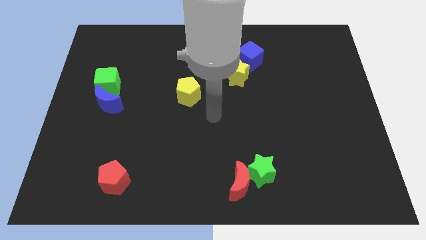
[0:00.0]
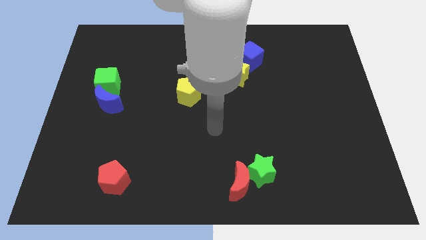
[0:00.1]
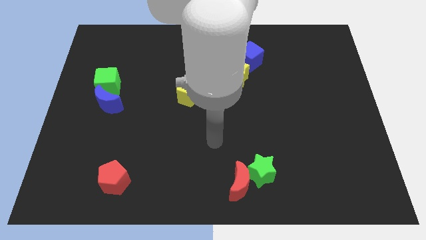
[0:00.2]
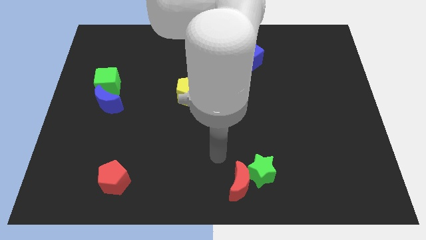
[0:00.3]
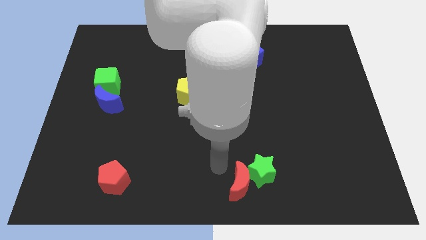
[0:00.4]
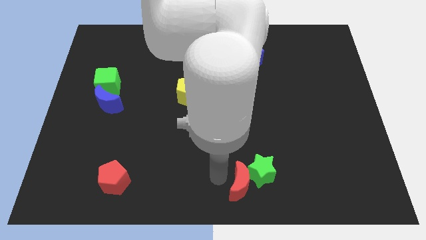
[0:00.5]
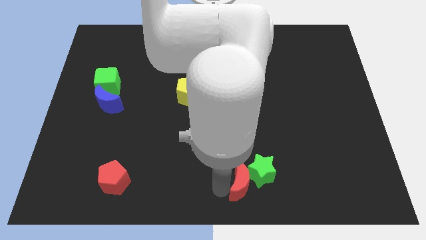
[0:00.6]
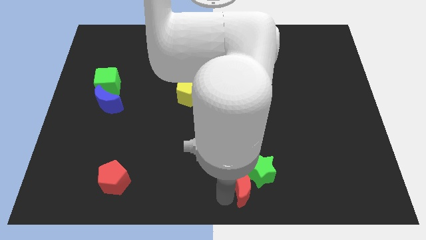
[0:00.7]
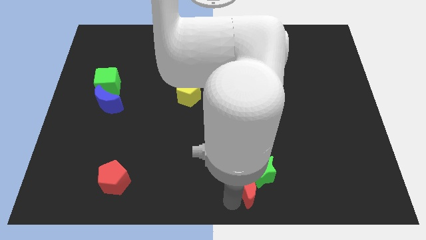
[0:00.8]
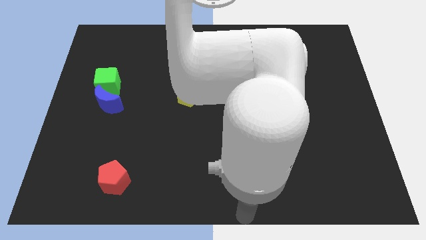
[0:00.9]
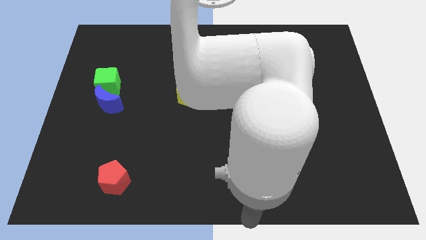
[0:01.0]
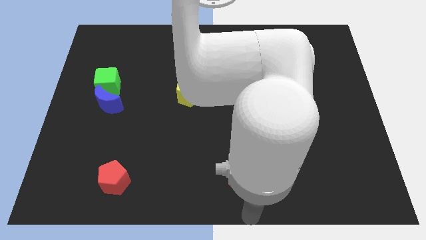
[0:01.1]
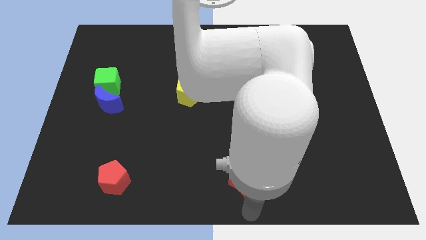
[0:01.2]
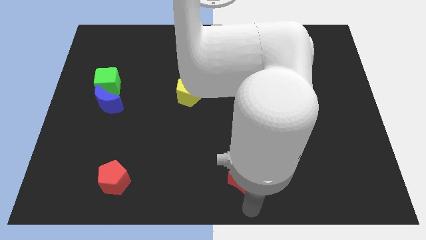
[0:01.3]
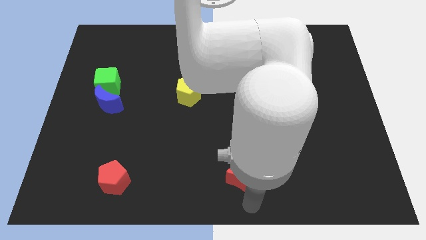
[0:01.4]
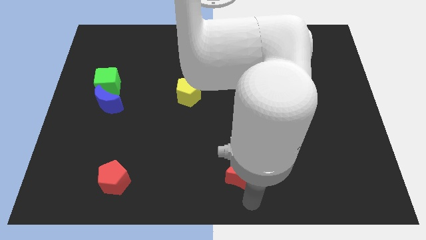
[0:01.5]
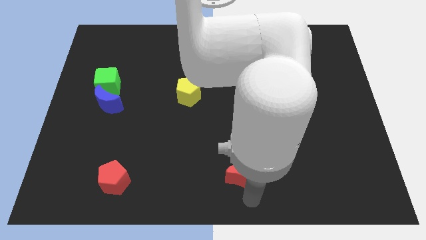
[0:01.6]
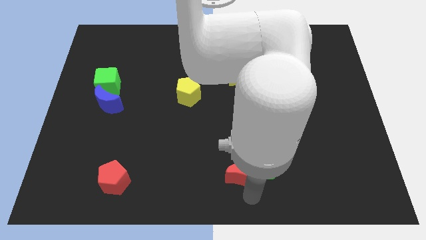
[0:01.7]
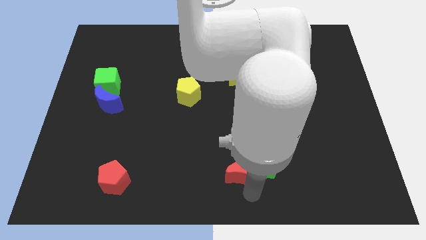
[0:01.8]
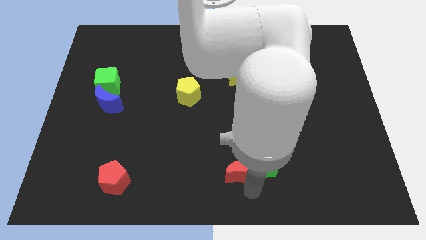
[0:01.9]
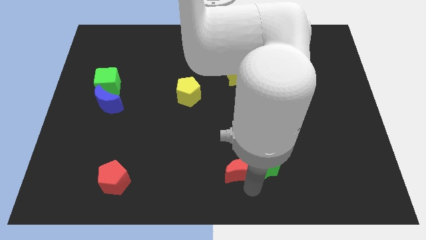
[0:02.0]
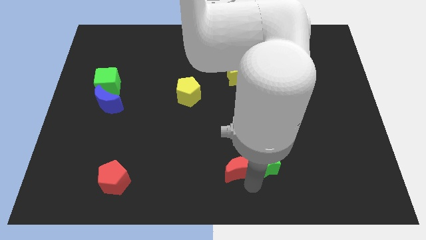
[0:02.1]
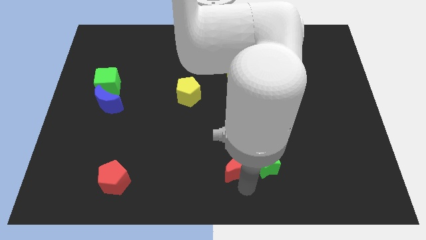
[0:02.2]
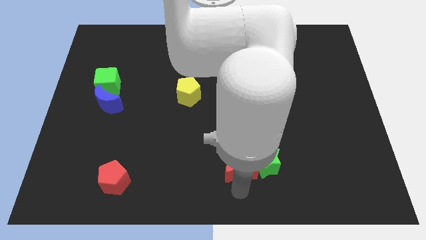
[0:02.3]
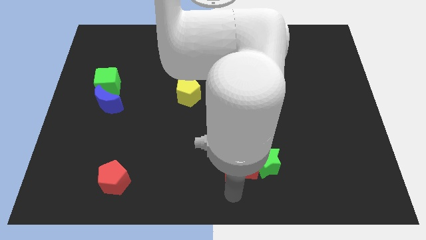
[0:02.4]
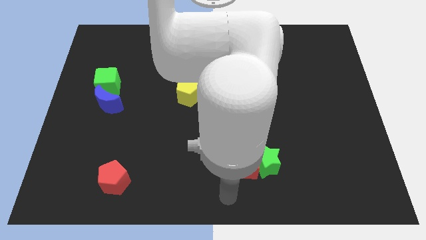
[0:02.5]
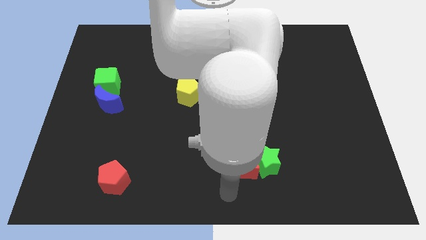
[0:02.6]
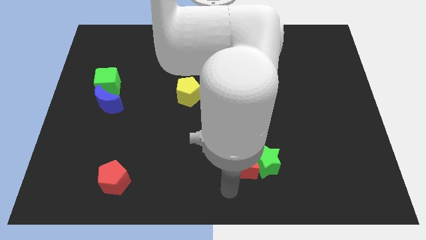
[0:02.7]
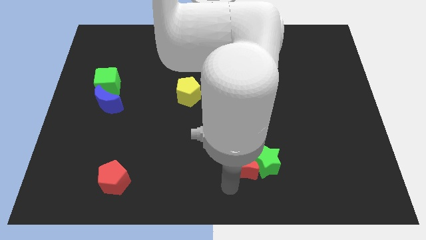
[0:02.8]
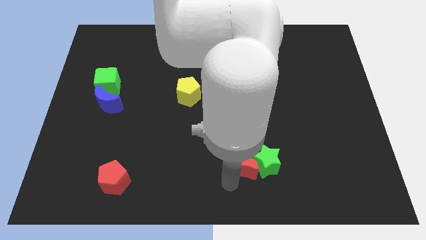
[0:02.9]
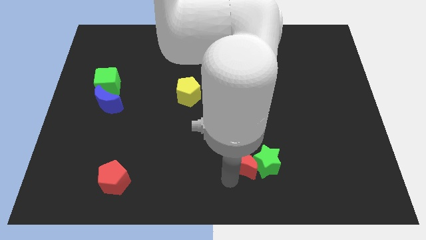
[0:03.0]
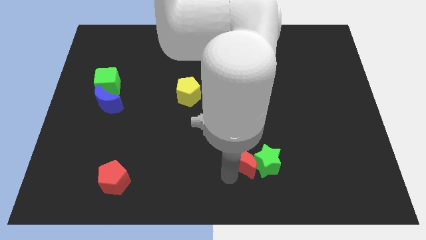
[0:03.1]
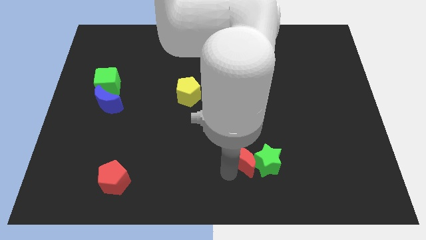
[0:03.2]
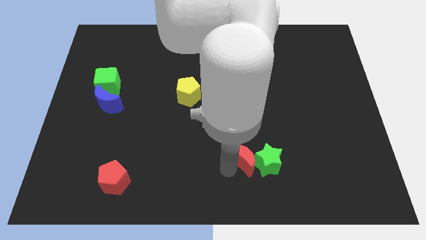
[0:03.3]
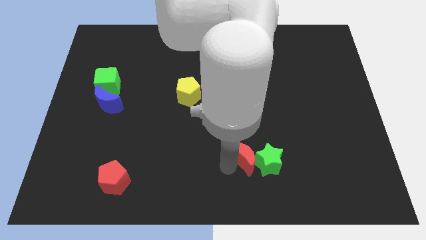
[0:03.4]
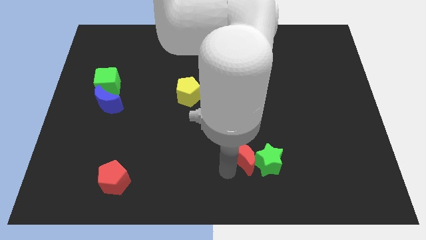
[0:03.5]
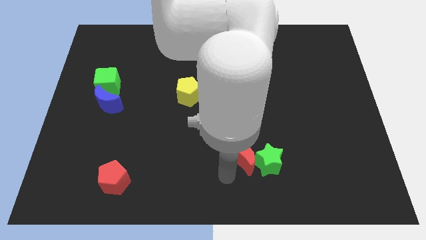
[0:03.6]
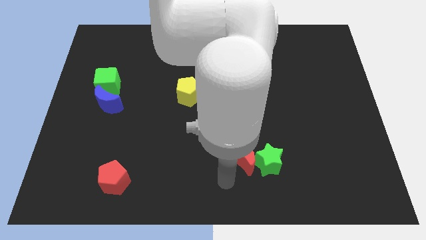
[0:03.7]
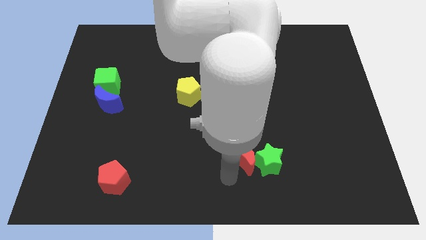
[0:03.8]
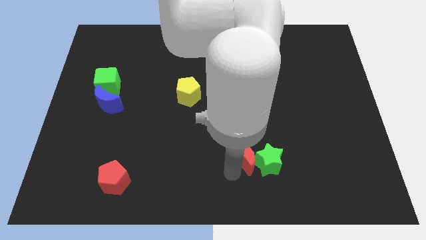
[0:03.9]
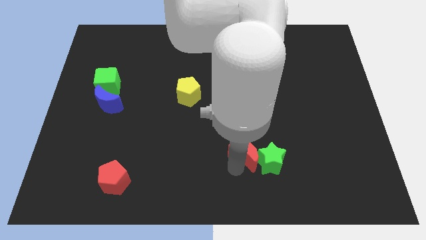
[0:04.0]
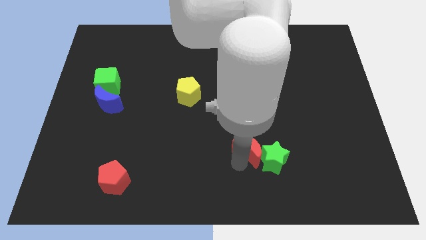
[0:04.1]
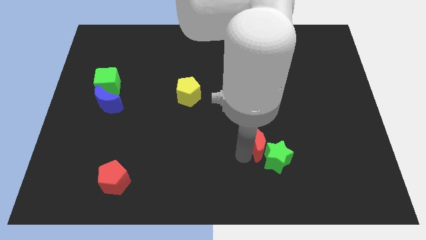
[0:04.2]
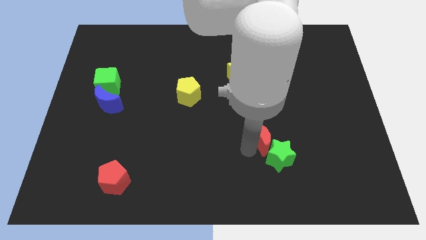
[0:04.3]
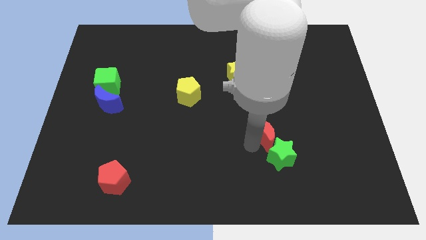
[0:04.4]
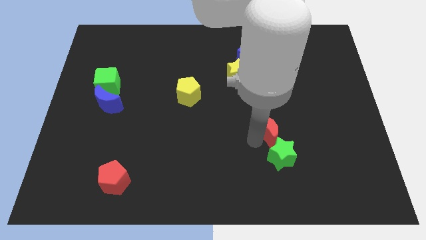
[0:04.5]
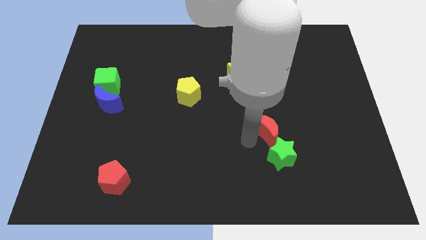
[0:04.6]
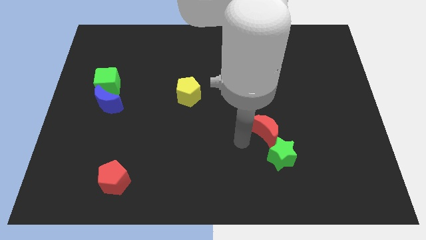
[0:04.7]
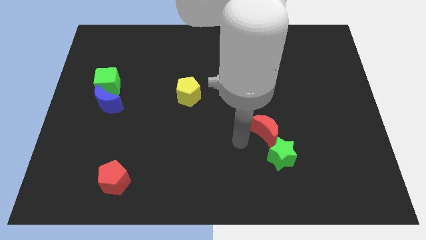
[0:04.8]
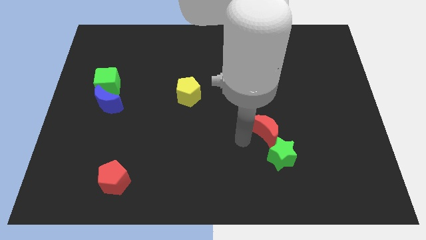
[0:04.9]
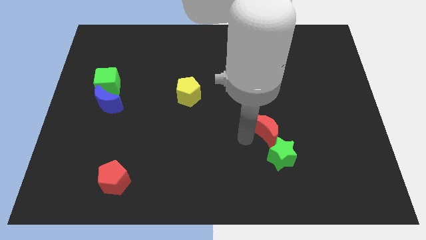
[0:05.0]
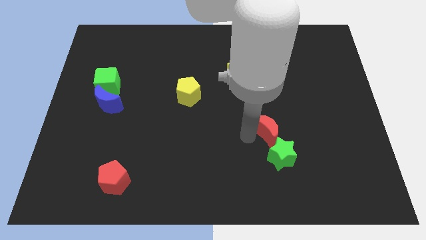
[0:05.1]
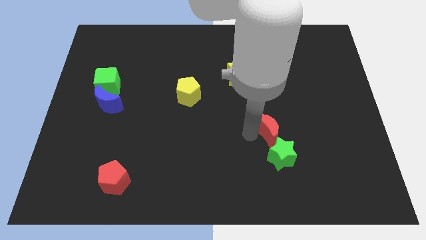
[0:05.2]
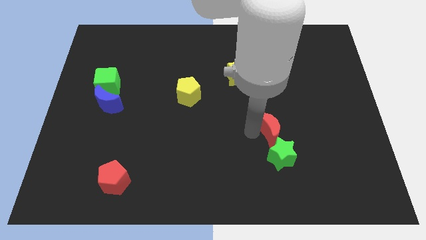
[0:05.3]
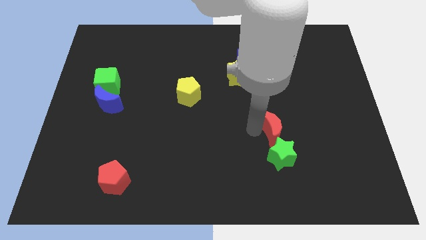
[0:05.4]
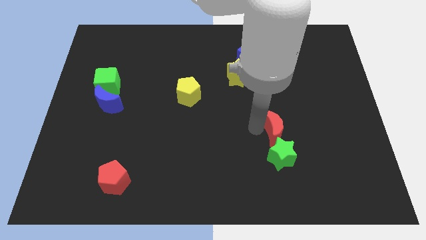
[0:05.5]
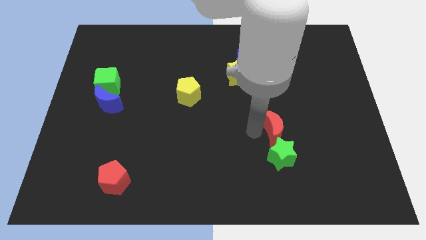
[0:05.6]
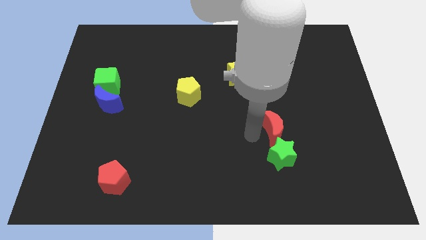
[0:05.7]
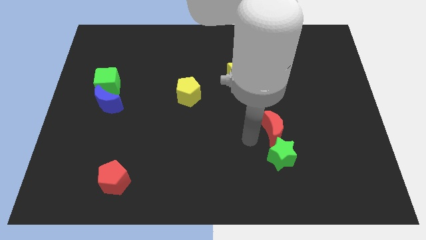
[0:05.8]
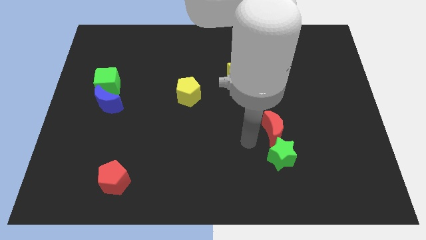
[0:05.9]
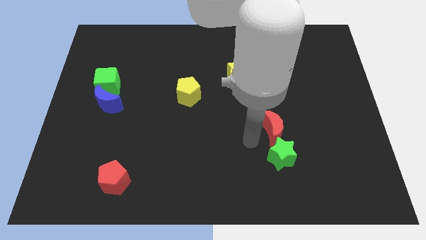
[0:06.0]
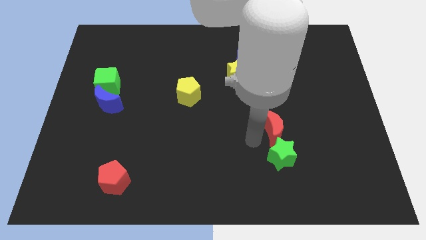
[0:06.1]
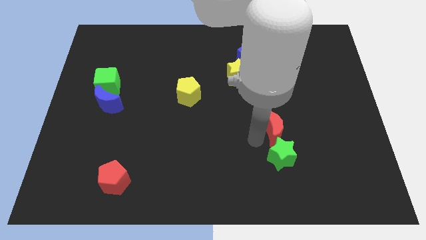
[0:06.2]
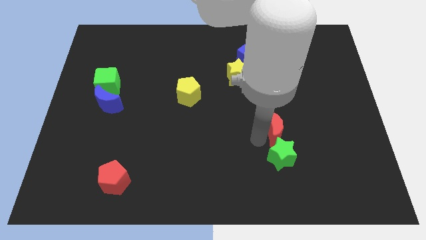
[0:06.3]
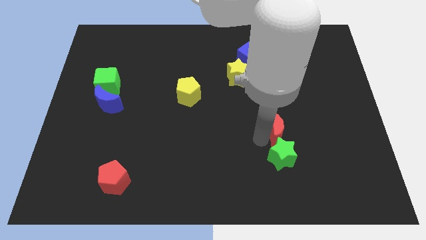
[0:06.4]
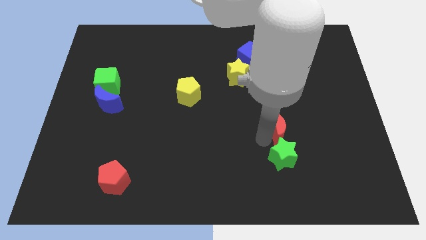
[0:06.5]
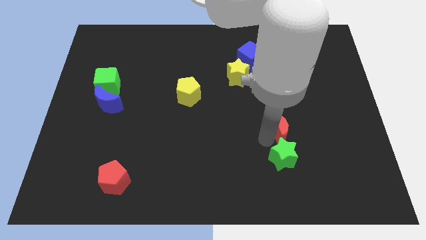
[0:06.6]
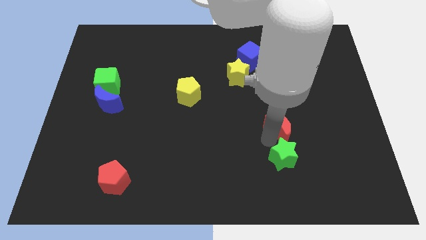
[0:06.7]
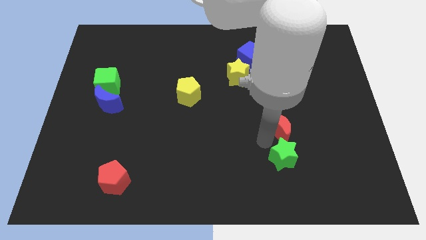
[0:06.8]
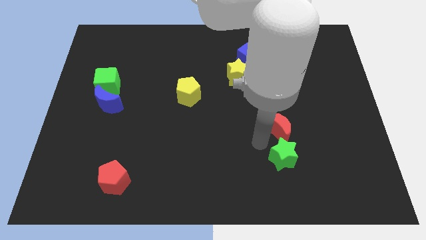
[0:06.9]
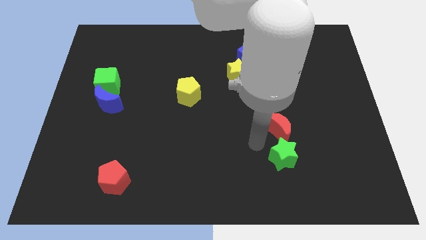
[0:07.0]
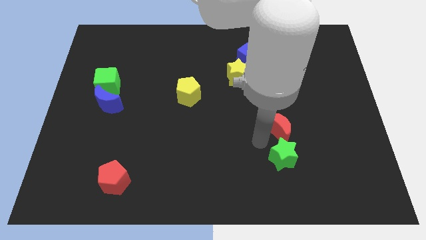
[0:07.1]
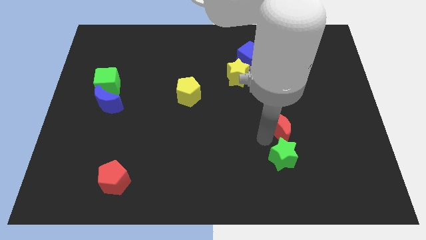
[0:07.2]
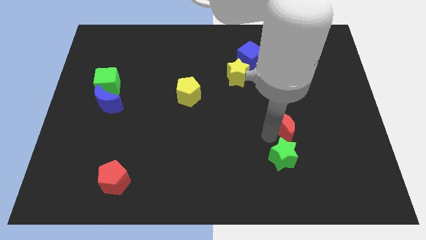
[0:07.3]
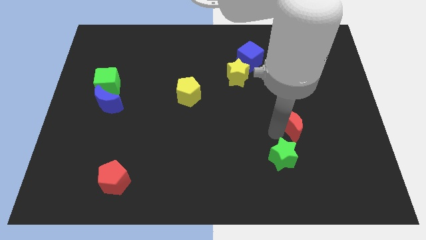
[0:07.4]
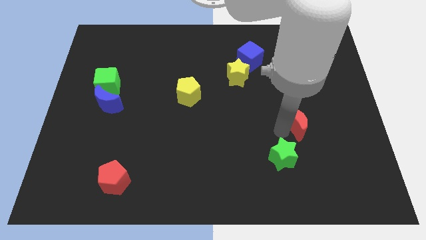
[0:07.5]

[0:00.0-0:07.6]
move the red moon up and right

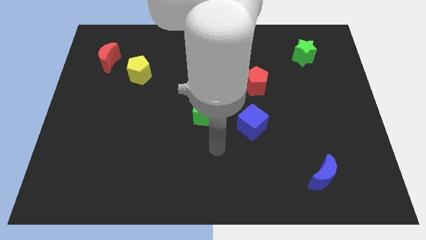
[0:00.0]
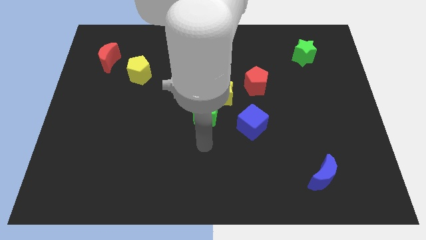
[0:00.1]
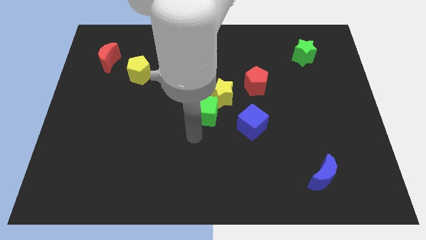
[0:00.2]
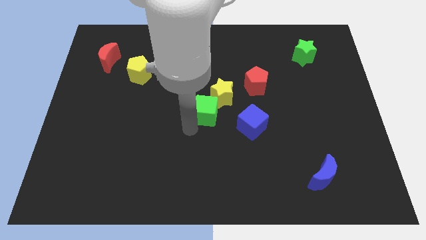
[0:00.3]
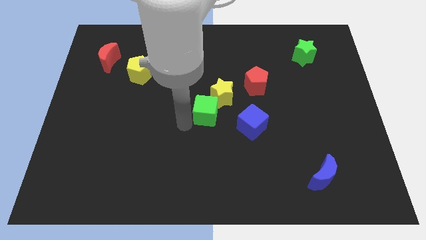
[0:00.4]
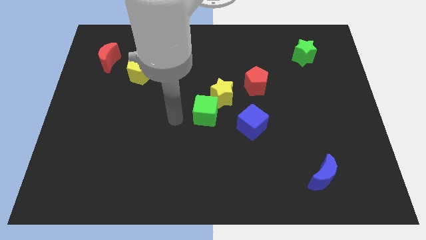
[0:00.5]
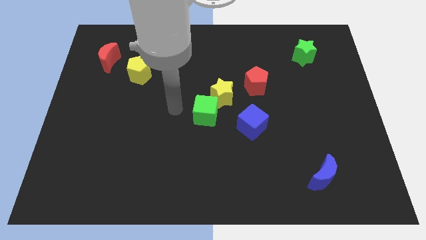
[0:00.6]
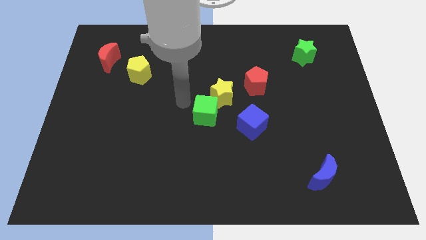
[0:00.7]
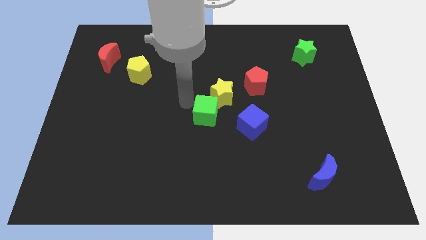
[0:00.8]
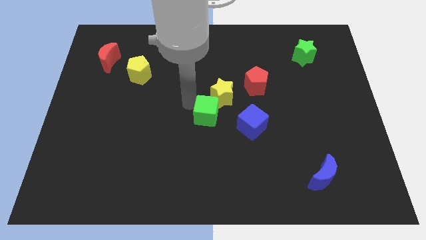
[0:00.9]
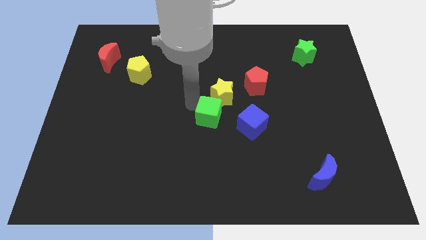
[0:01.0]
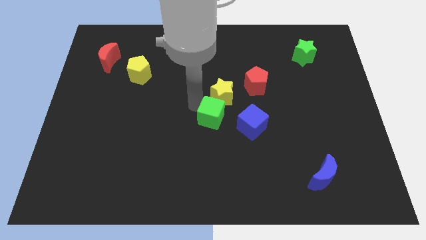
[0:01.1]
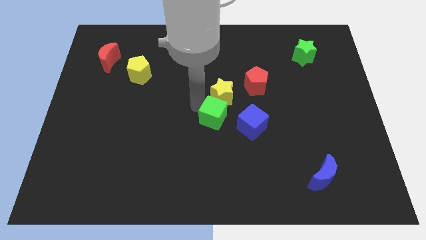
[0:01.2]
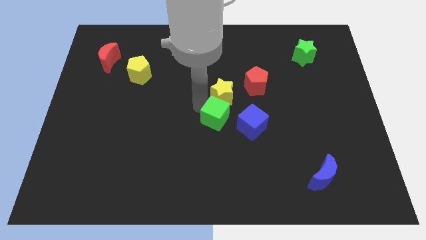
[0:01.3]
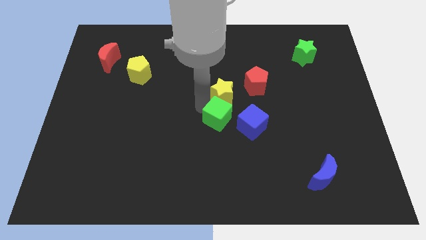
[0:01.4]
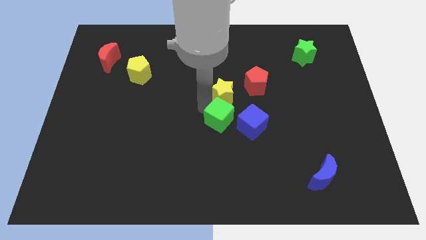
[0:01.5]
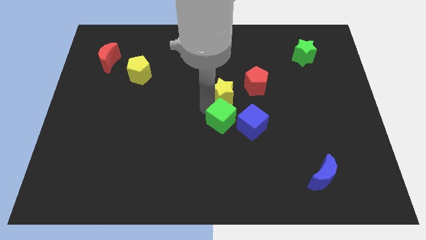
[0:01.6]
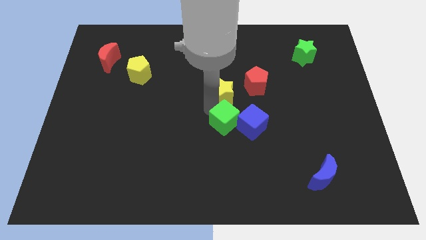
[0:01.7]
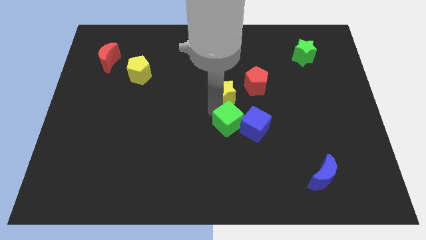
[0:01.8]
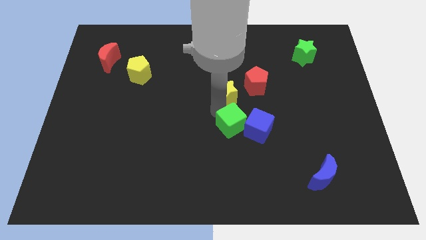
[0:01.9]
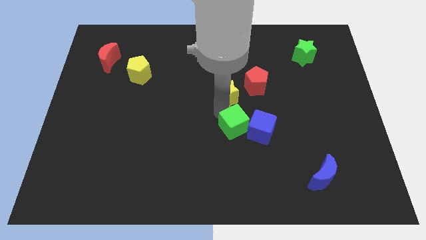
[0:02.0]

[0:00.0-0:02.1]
slide the green cube a little down and to the right diagonally
